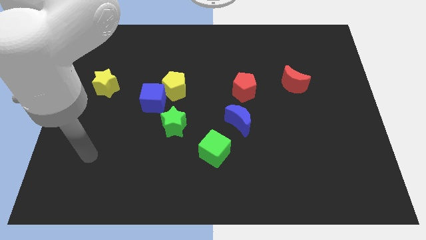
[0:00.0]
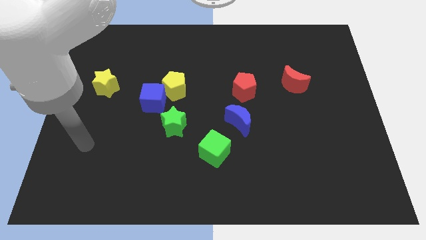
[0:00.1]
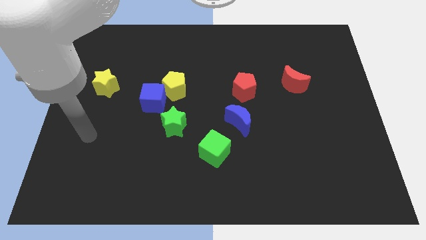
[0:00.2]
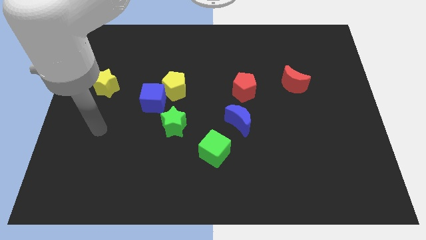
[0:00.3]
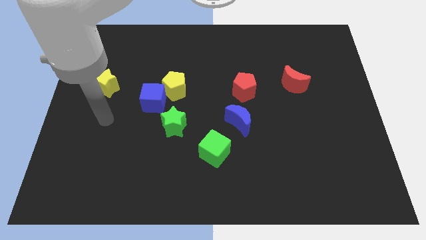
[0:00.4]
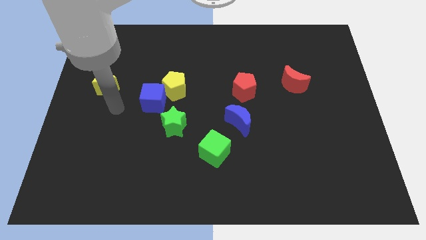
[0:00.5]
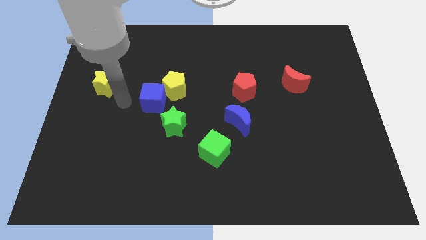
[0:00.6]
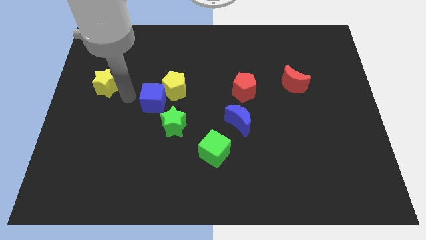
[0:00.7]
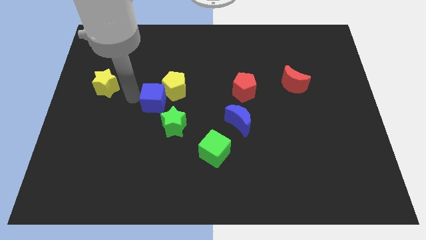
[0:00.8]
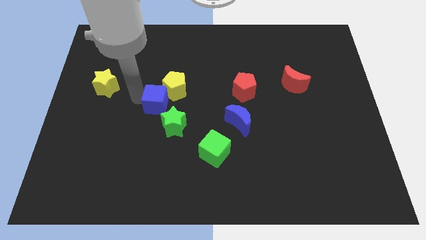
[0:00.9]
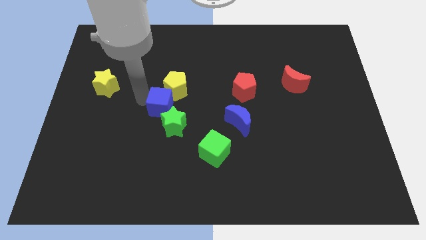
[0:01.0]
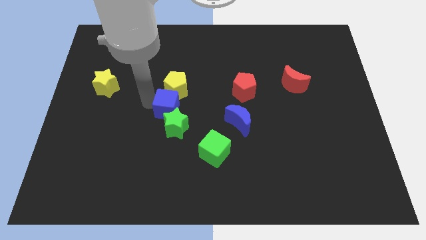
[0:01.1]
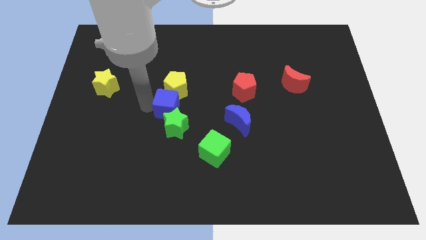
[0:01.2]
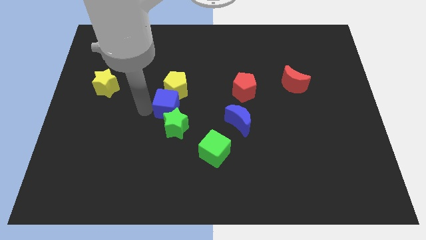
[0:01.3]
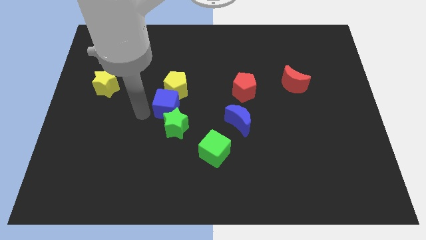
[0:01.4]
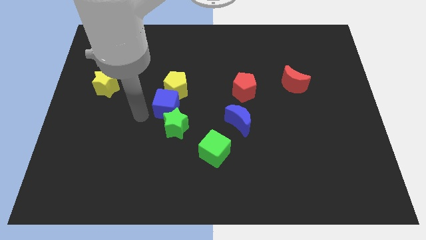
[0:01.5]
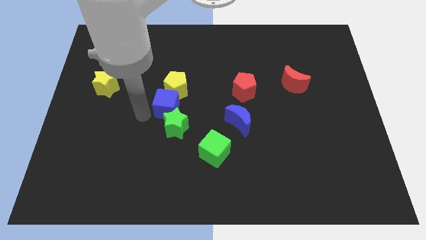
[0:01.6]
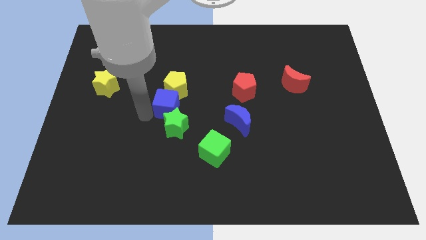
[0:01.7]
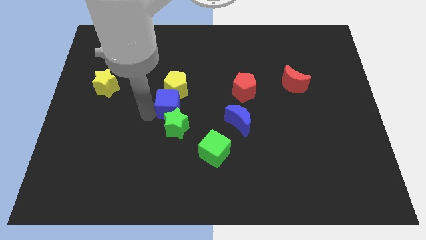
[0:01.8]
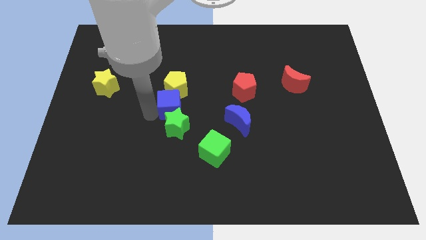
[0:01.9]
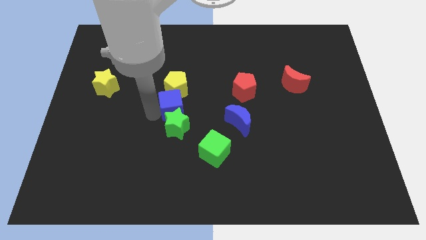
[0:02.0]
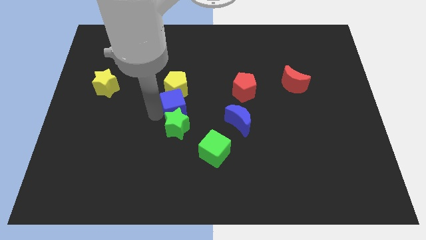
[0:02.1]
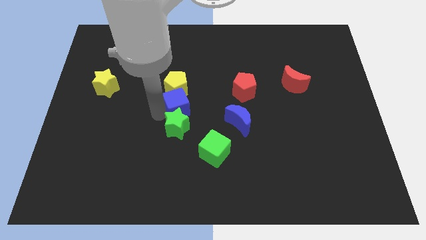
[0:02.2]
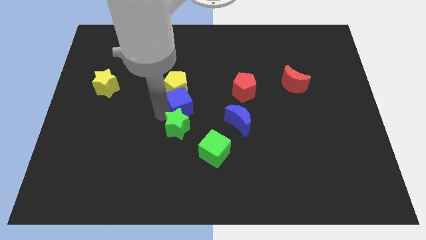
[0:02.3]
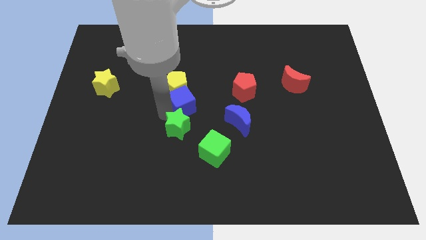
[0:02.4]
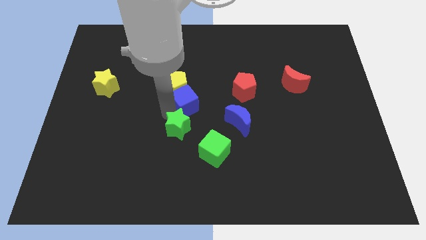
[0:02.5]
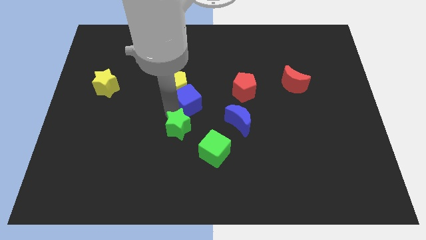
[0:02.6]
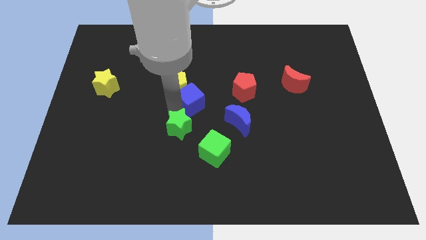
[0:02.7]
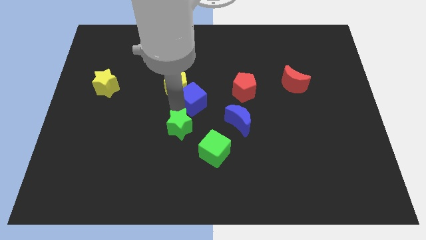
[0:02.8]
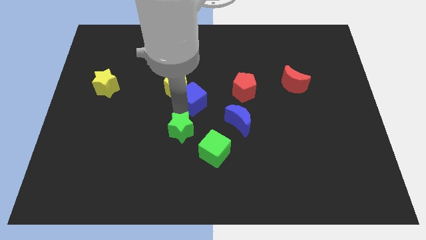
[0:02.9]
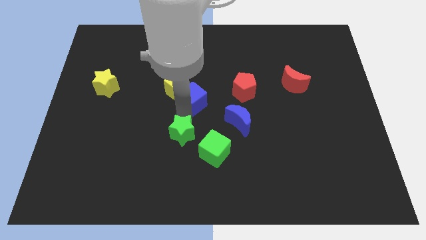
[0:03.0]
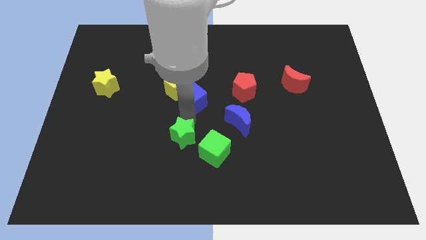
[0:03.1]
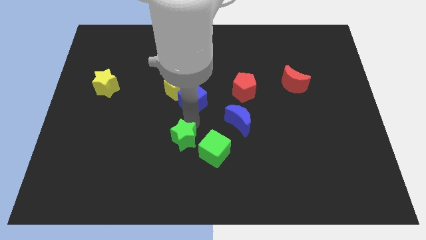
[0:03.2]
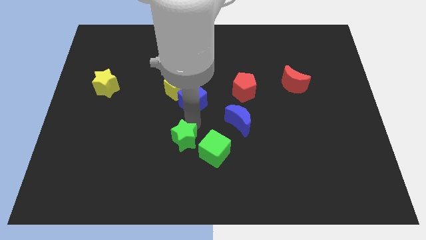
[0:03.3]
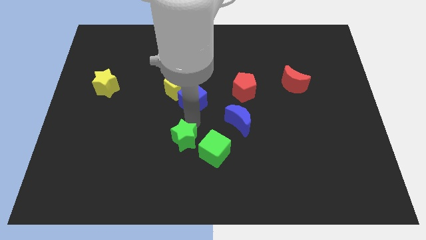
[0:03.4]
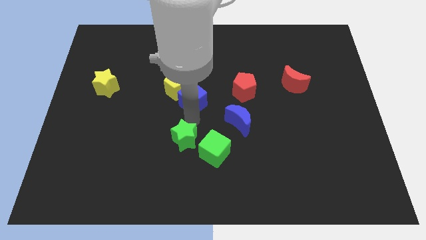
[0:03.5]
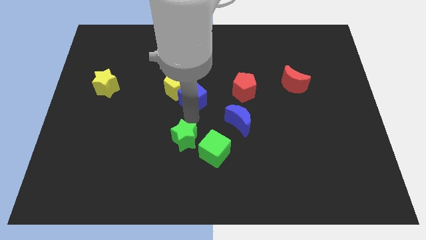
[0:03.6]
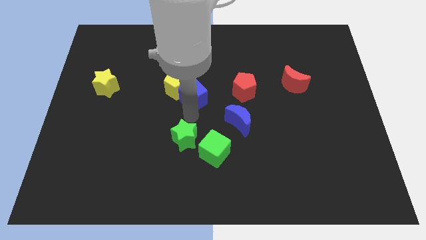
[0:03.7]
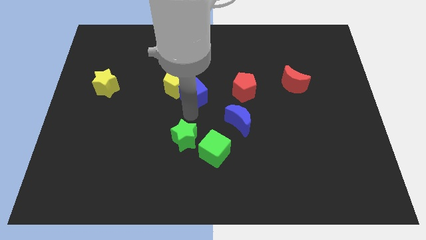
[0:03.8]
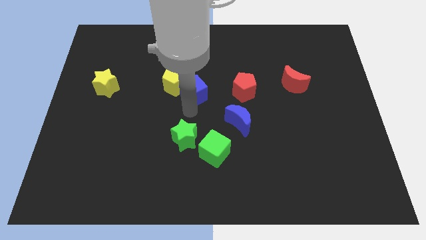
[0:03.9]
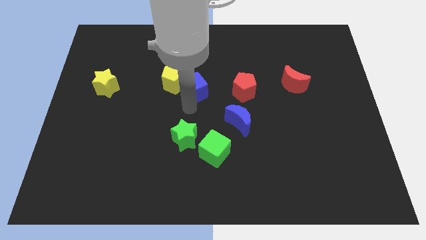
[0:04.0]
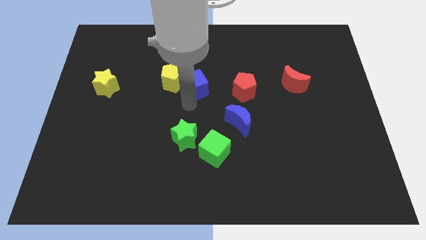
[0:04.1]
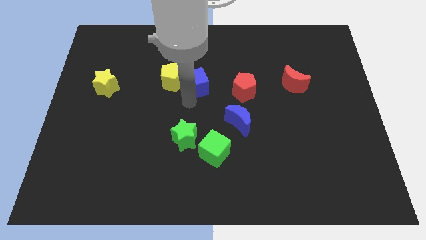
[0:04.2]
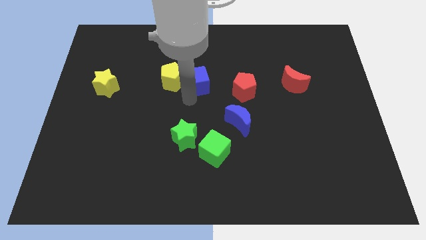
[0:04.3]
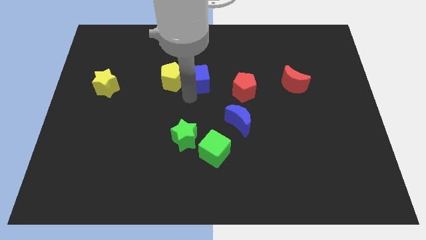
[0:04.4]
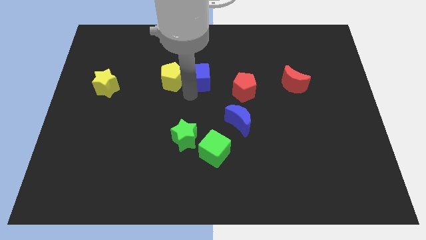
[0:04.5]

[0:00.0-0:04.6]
move the blue cube to the top right side of the yellow pentagon

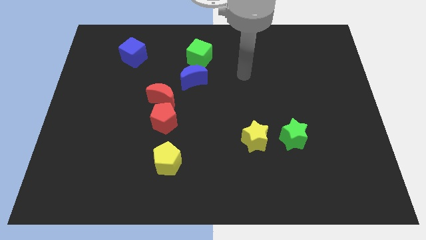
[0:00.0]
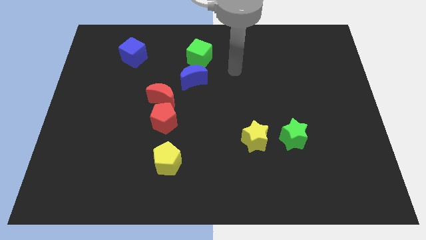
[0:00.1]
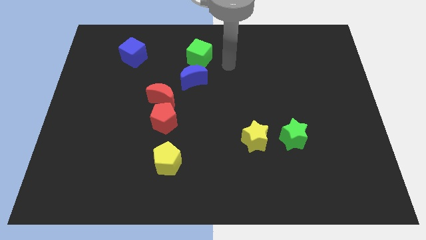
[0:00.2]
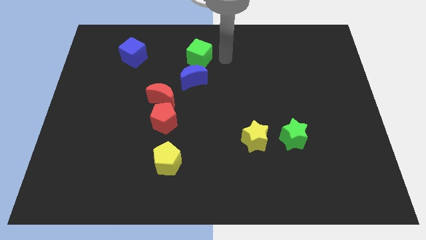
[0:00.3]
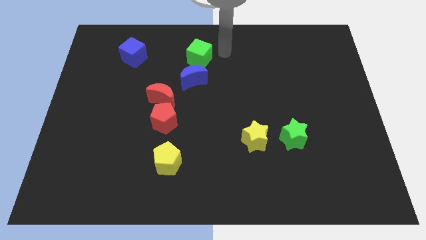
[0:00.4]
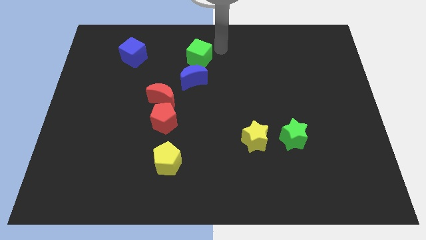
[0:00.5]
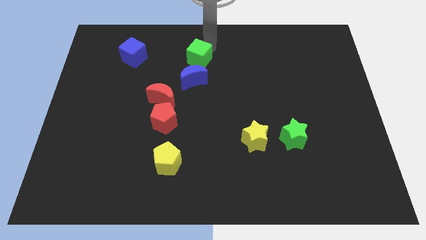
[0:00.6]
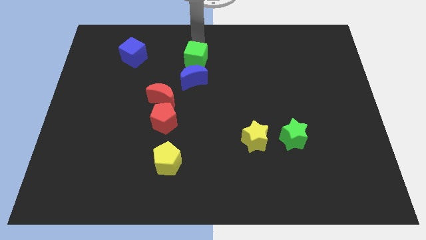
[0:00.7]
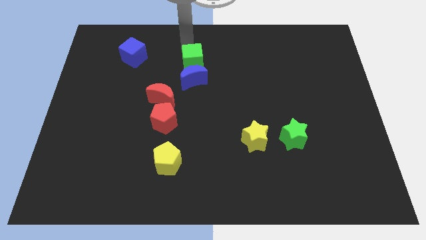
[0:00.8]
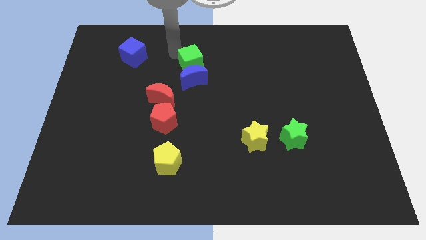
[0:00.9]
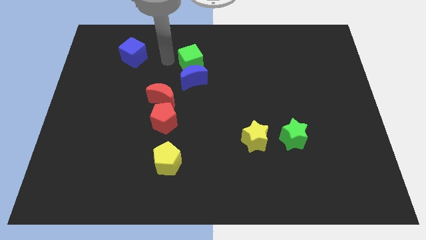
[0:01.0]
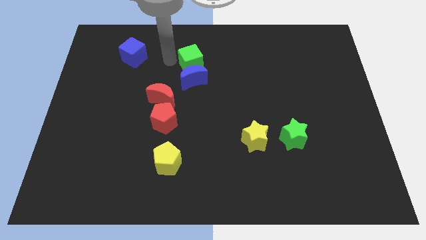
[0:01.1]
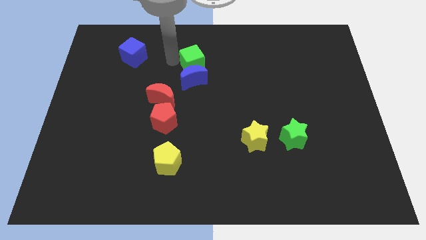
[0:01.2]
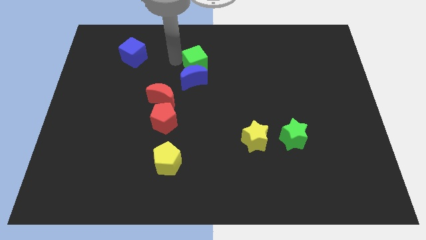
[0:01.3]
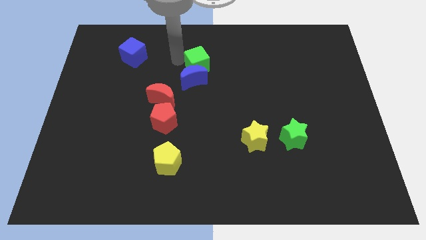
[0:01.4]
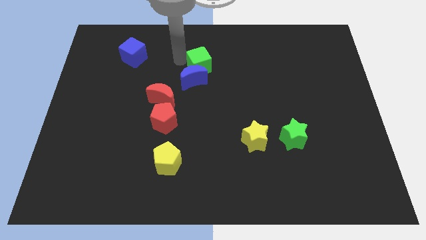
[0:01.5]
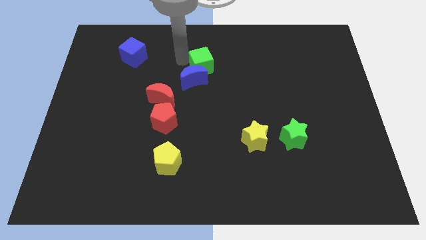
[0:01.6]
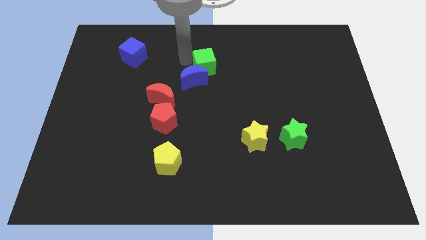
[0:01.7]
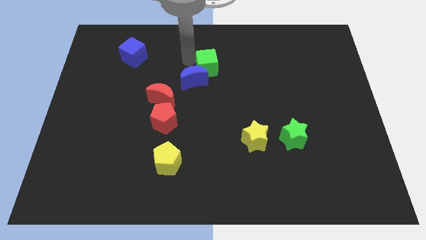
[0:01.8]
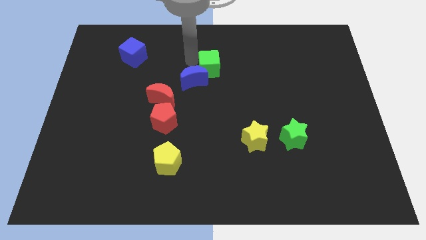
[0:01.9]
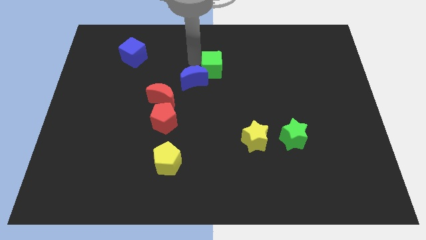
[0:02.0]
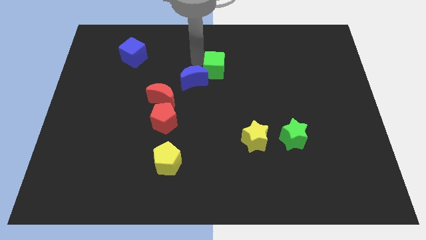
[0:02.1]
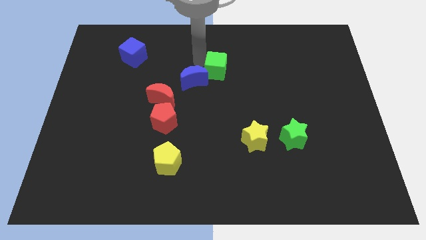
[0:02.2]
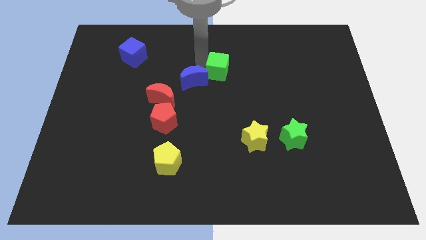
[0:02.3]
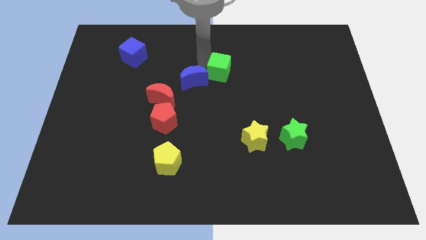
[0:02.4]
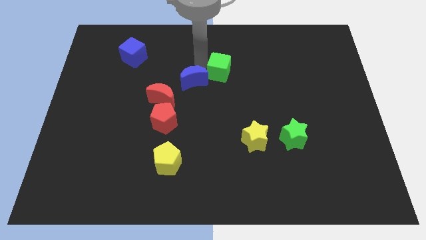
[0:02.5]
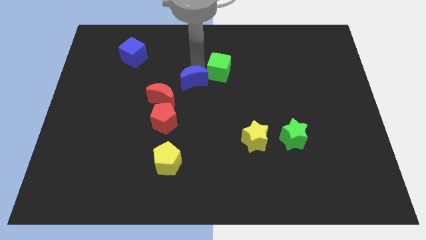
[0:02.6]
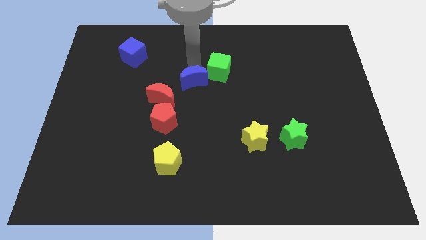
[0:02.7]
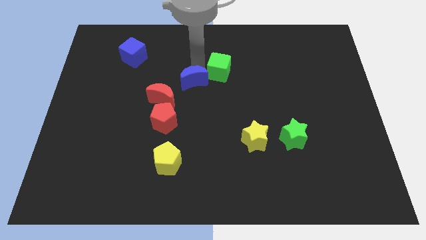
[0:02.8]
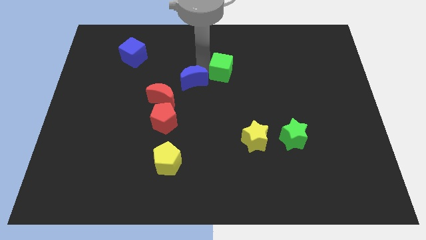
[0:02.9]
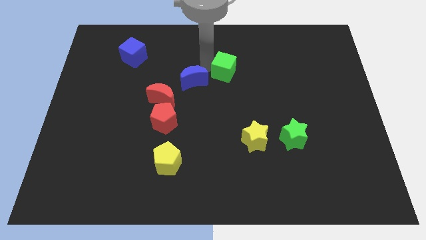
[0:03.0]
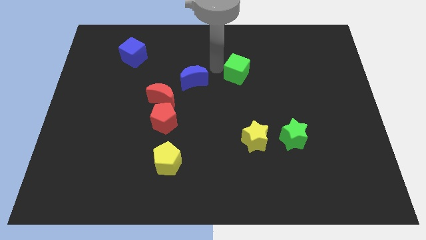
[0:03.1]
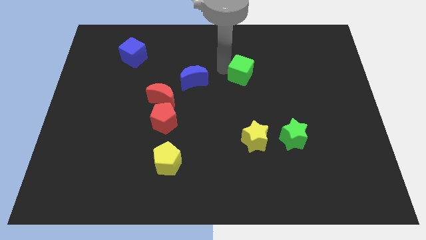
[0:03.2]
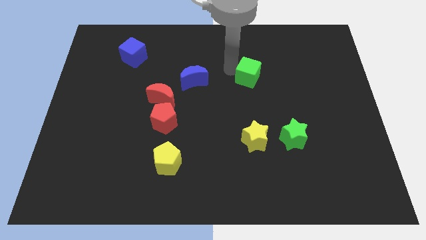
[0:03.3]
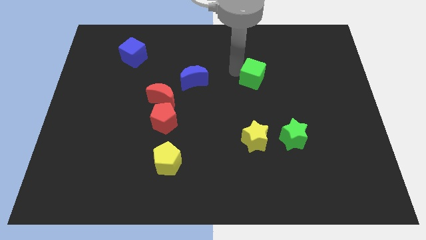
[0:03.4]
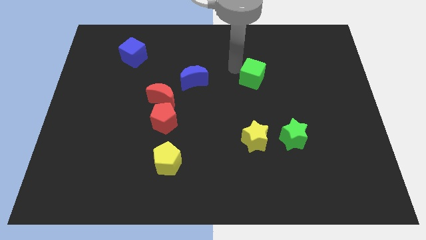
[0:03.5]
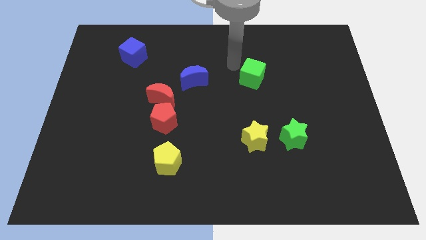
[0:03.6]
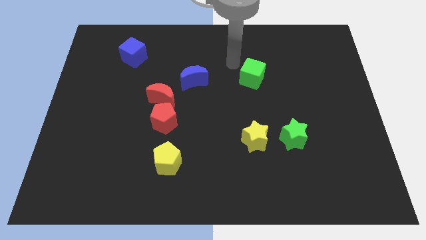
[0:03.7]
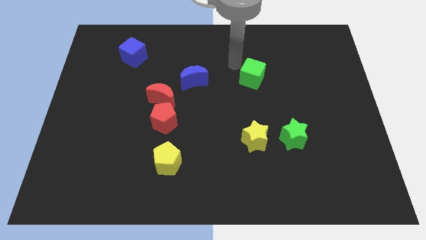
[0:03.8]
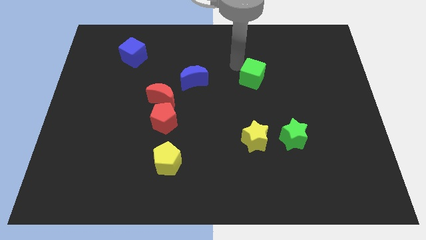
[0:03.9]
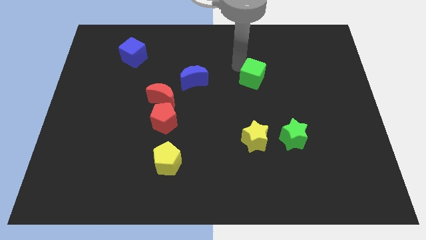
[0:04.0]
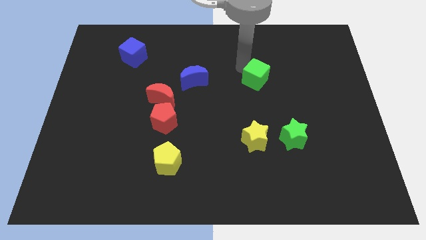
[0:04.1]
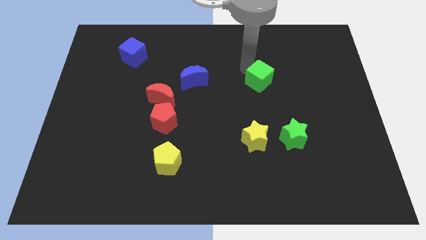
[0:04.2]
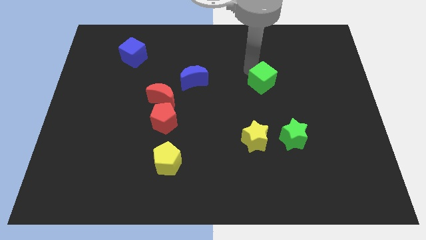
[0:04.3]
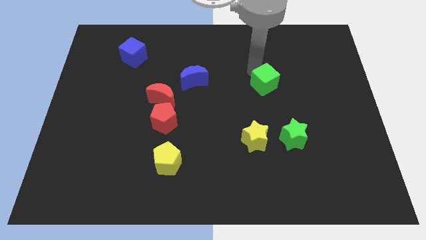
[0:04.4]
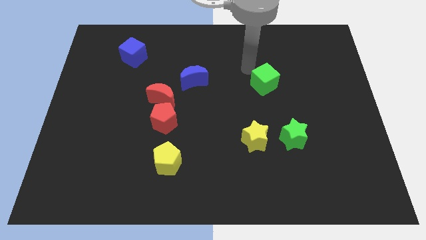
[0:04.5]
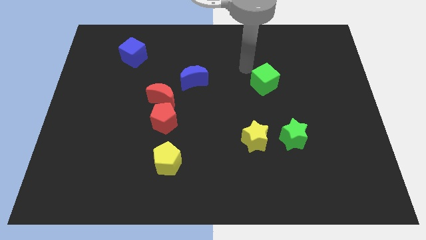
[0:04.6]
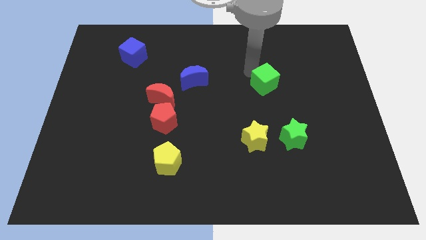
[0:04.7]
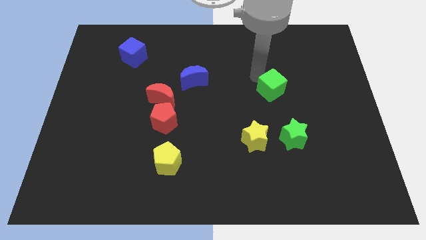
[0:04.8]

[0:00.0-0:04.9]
slide the green cube to the top of the green star
